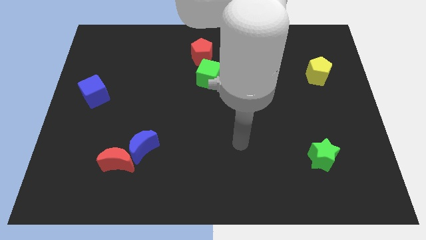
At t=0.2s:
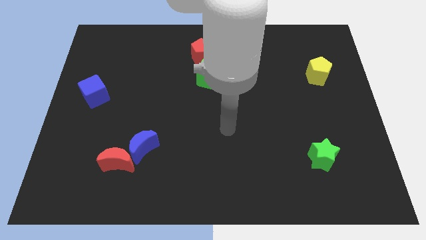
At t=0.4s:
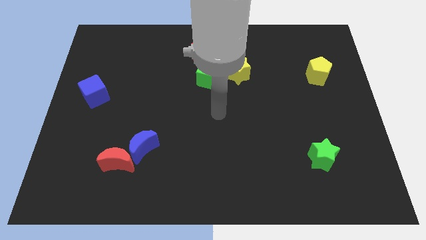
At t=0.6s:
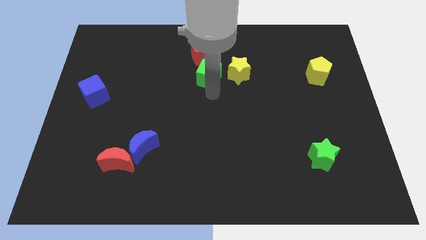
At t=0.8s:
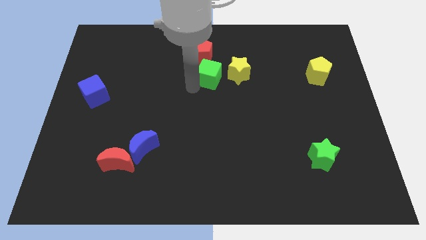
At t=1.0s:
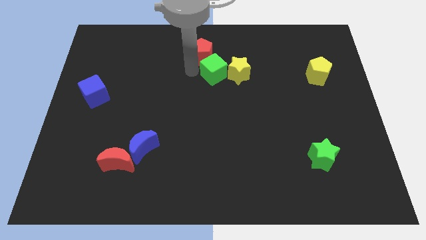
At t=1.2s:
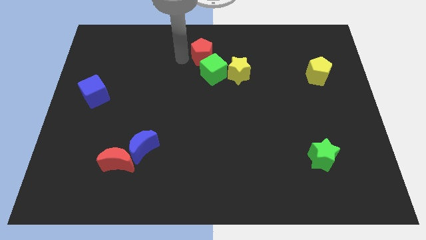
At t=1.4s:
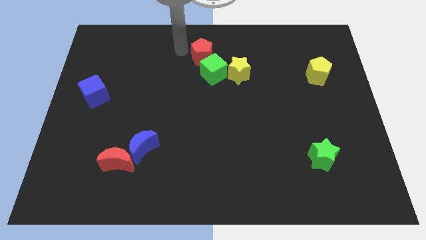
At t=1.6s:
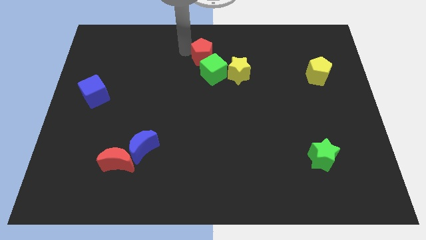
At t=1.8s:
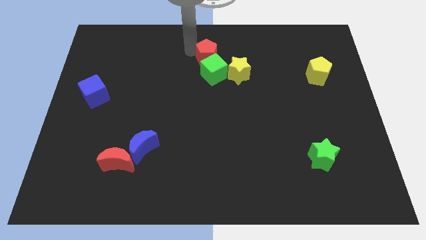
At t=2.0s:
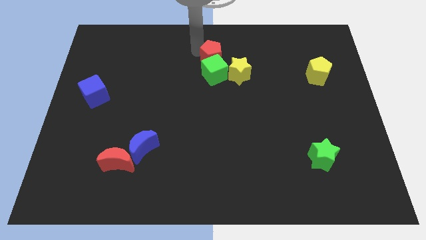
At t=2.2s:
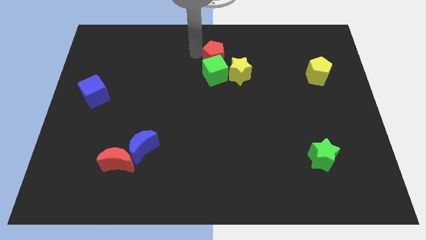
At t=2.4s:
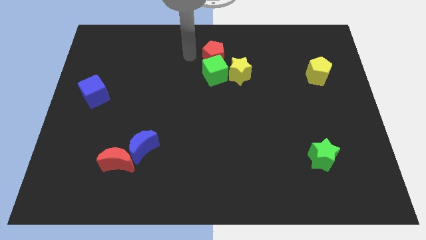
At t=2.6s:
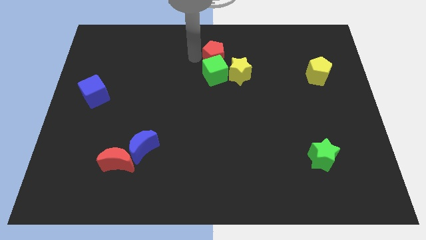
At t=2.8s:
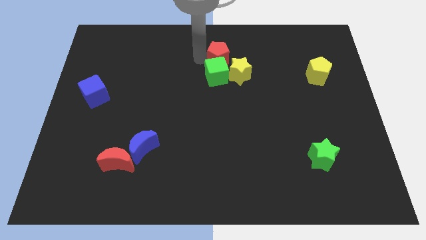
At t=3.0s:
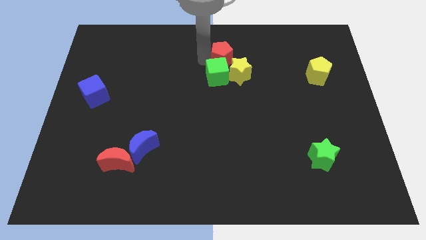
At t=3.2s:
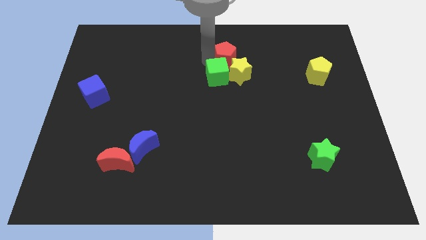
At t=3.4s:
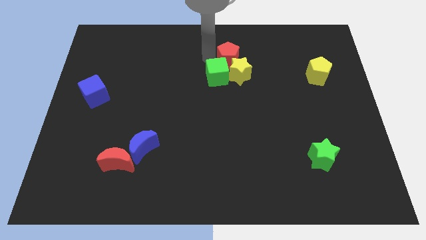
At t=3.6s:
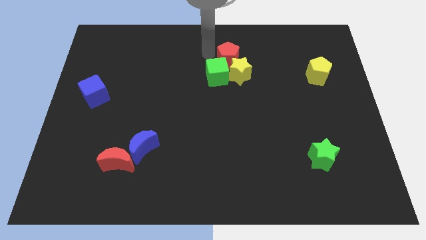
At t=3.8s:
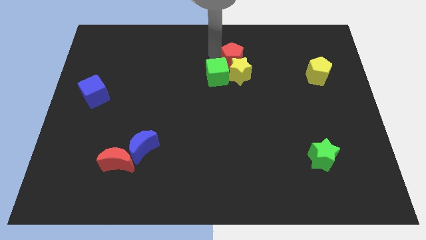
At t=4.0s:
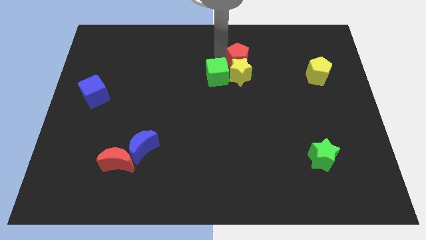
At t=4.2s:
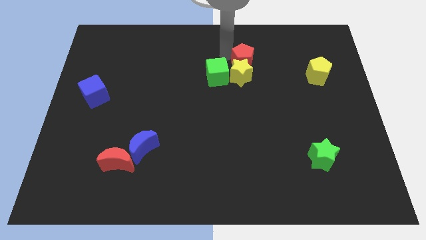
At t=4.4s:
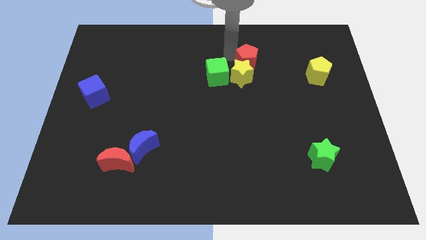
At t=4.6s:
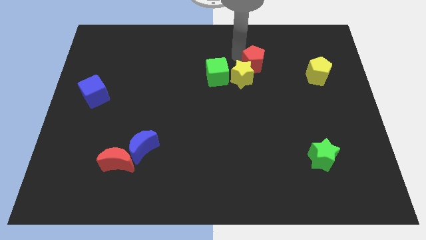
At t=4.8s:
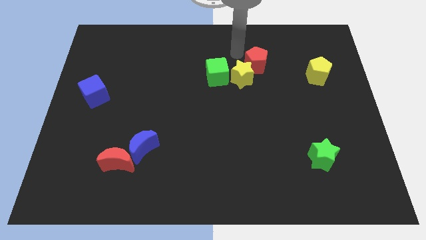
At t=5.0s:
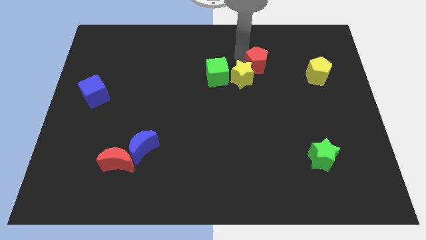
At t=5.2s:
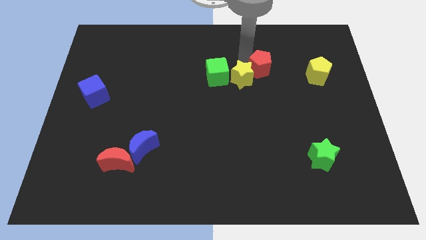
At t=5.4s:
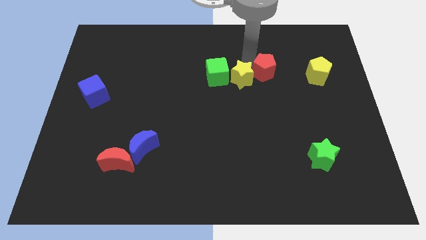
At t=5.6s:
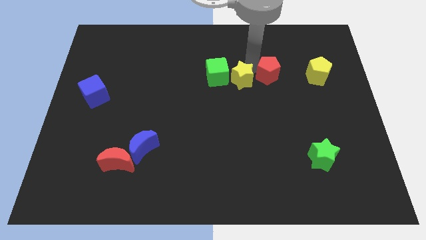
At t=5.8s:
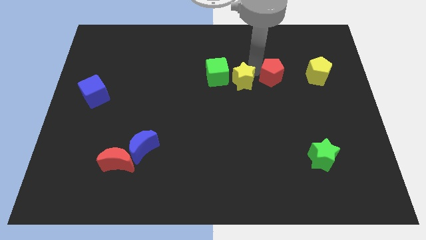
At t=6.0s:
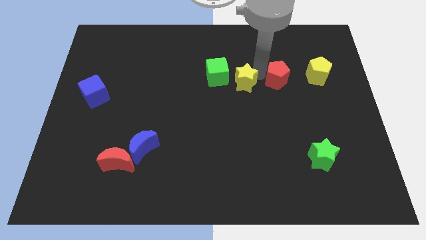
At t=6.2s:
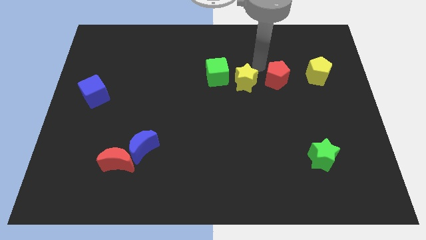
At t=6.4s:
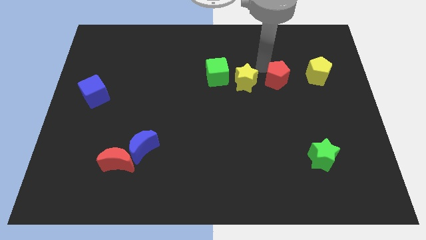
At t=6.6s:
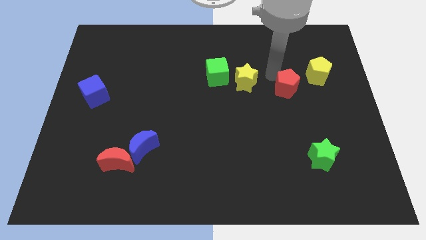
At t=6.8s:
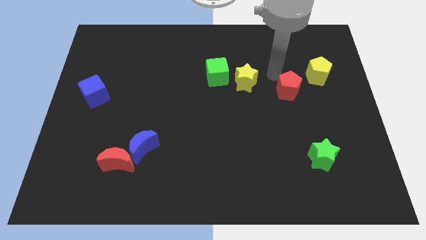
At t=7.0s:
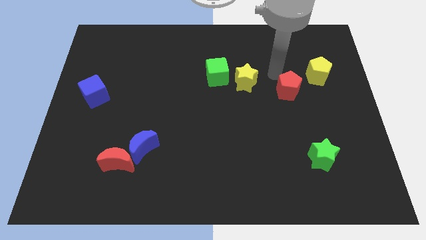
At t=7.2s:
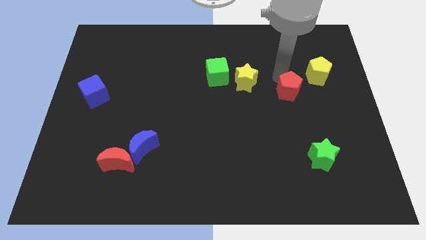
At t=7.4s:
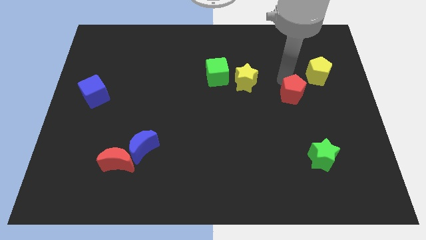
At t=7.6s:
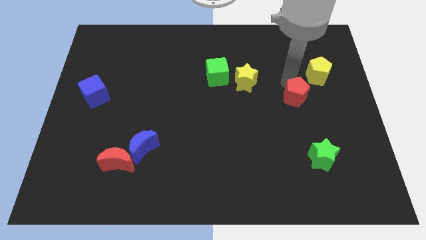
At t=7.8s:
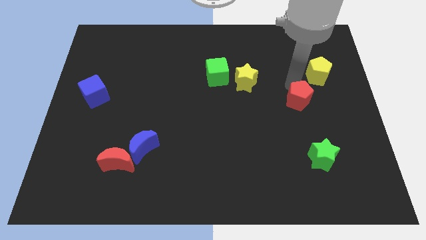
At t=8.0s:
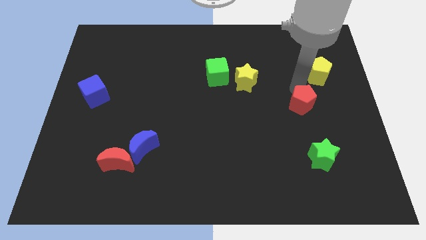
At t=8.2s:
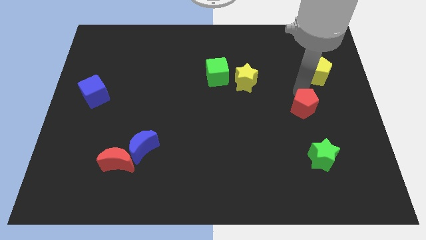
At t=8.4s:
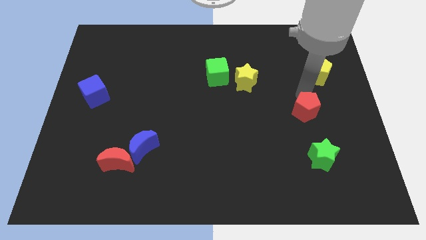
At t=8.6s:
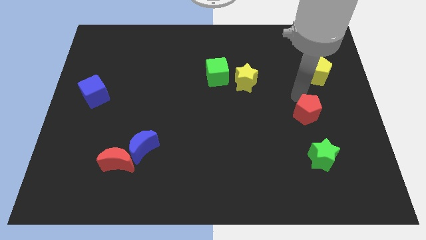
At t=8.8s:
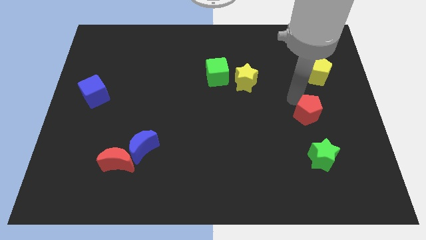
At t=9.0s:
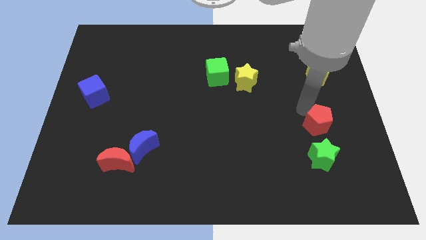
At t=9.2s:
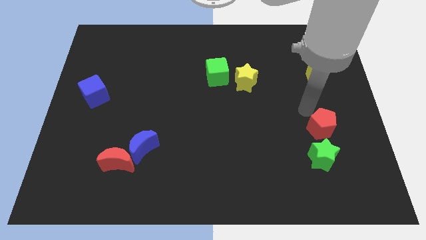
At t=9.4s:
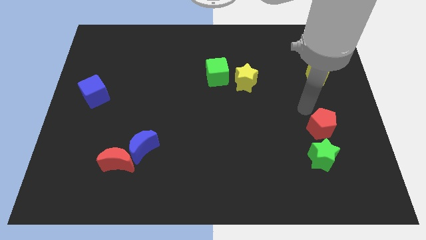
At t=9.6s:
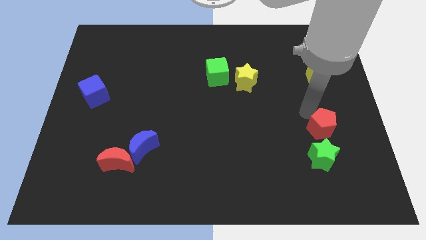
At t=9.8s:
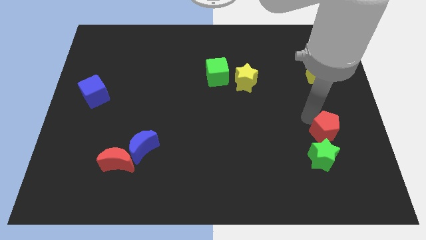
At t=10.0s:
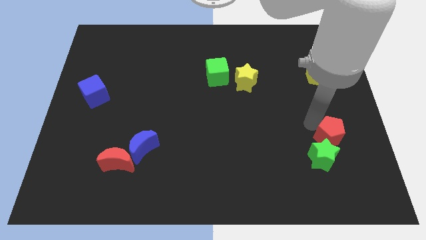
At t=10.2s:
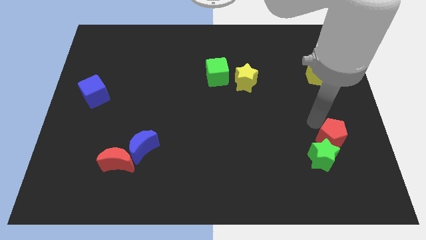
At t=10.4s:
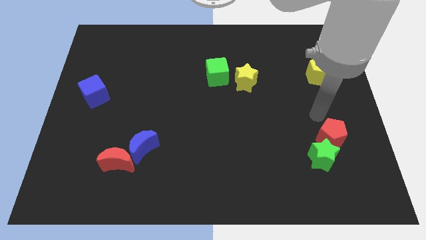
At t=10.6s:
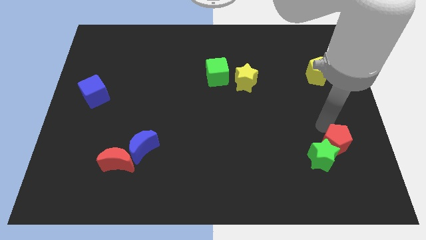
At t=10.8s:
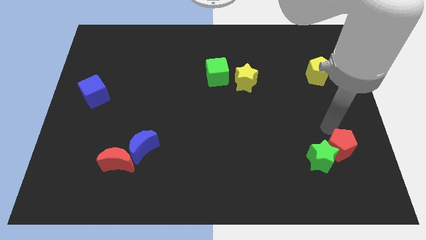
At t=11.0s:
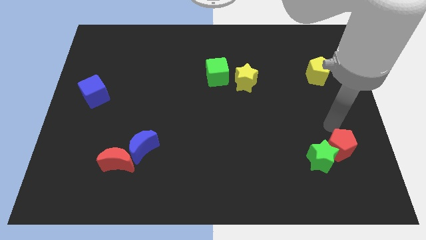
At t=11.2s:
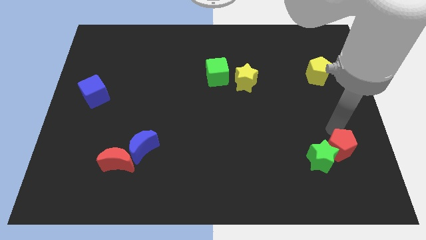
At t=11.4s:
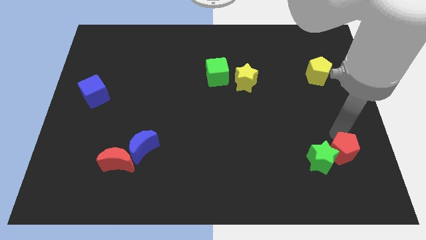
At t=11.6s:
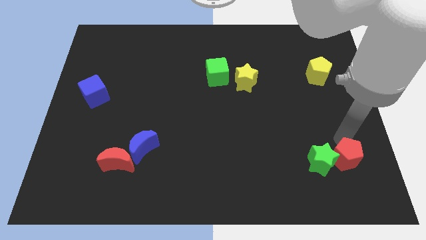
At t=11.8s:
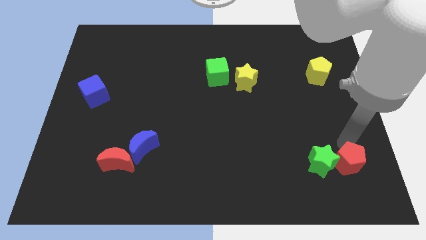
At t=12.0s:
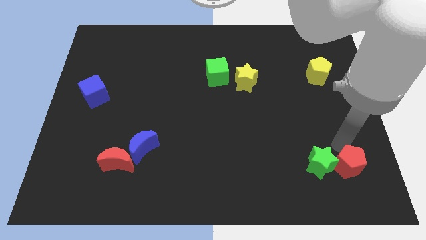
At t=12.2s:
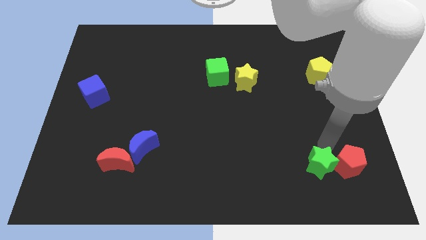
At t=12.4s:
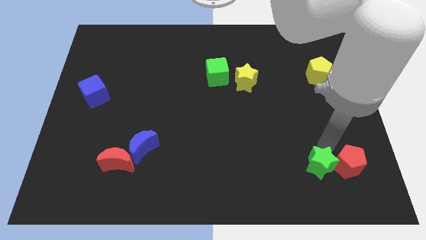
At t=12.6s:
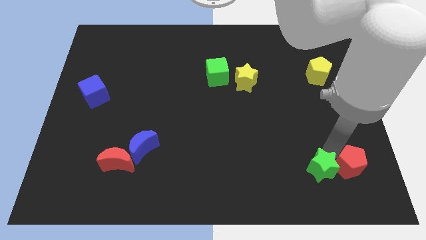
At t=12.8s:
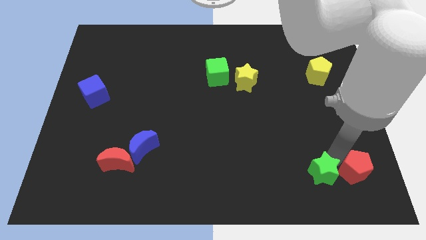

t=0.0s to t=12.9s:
push the red pentagon to the bottom right
